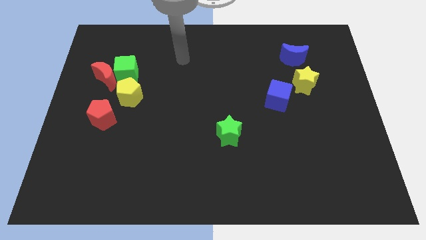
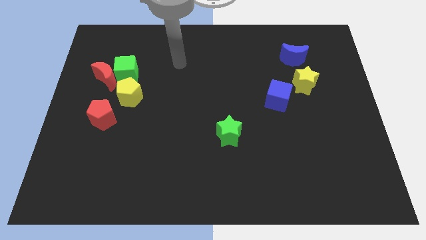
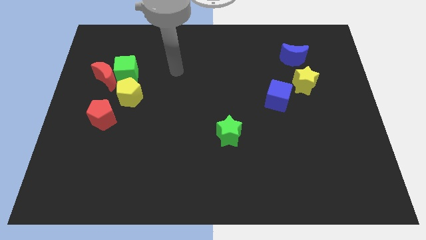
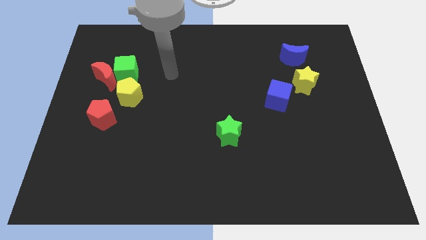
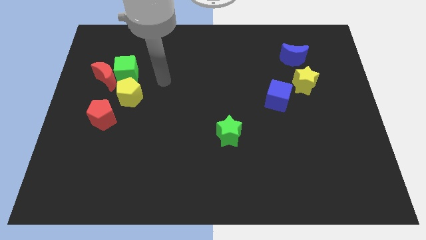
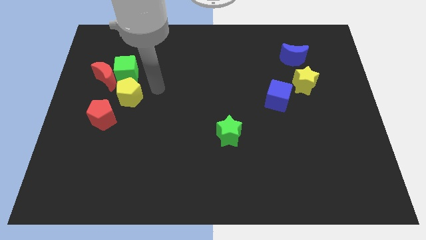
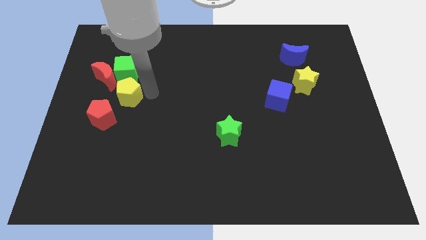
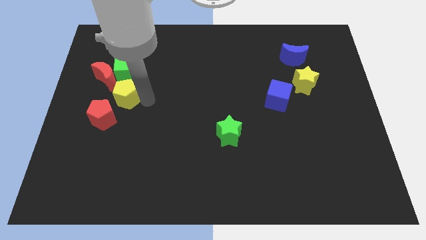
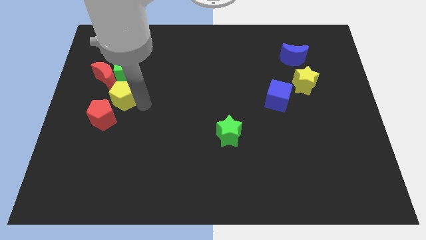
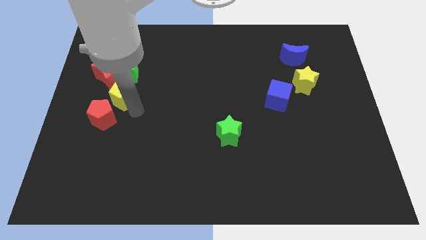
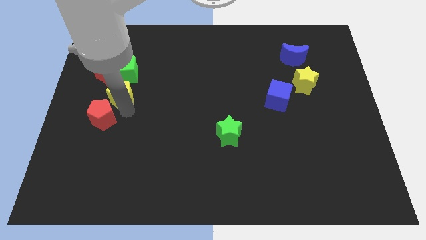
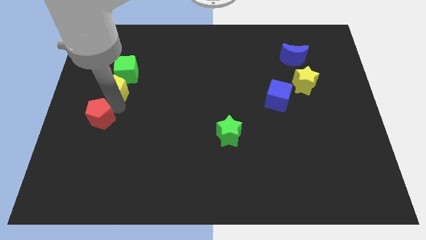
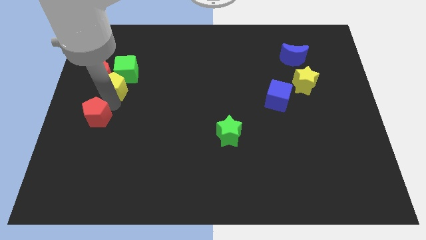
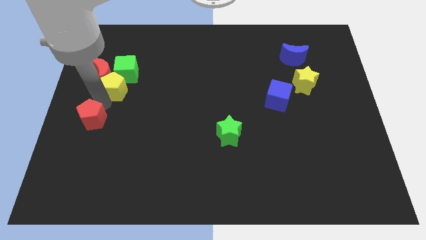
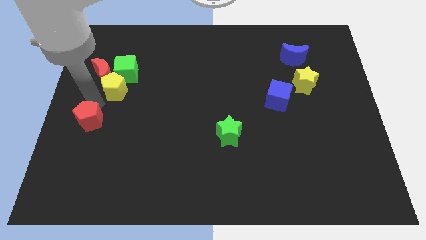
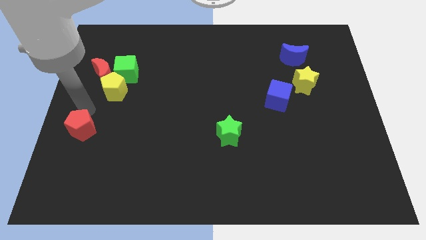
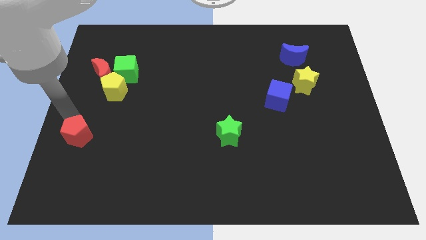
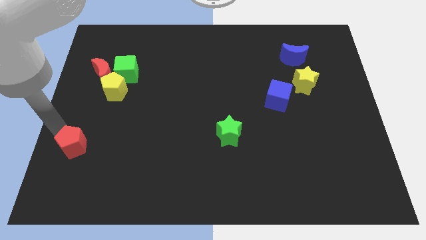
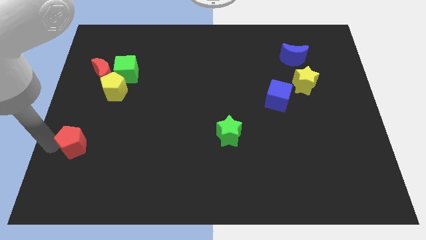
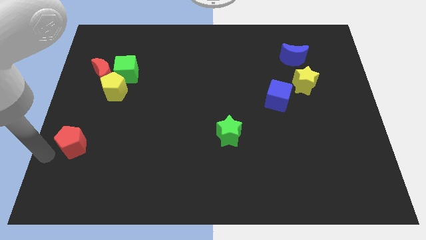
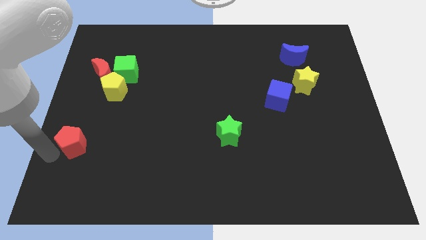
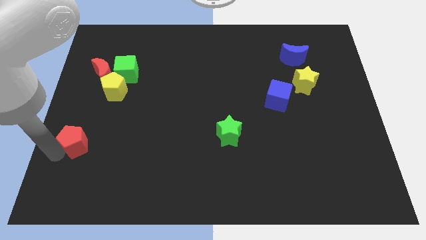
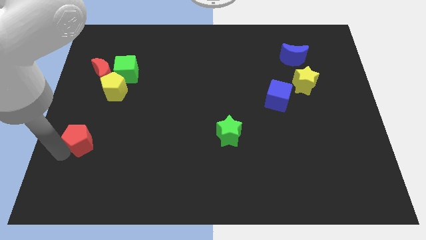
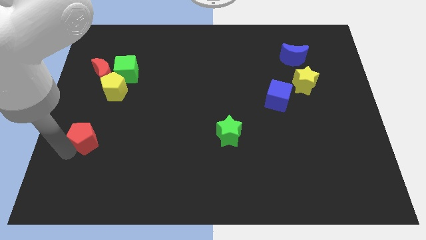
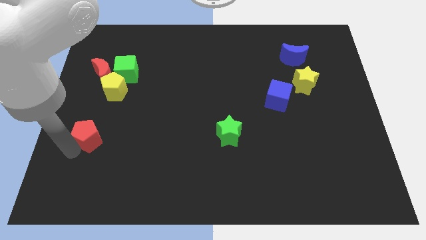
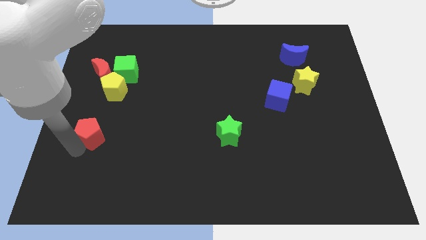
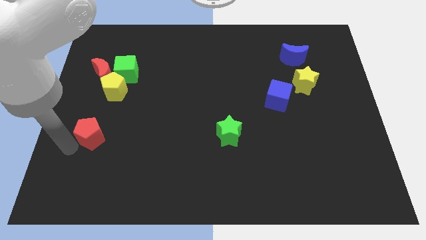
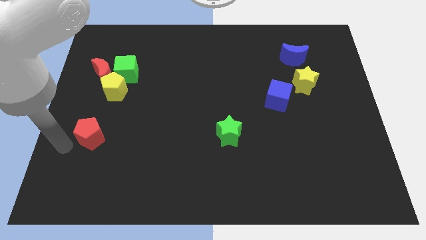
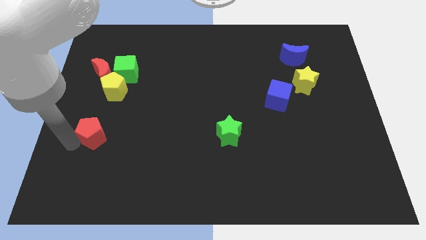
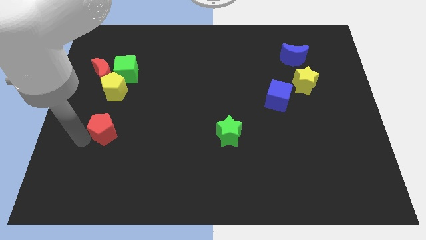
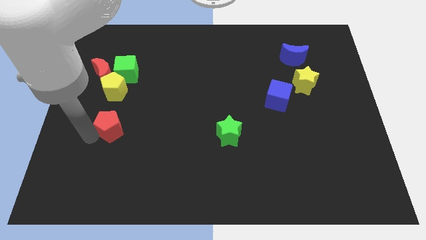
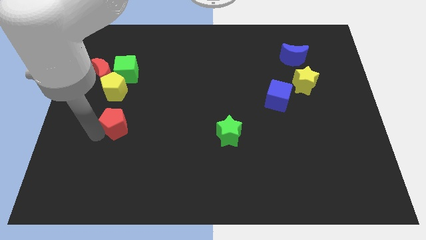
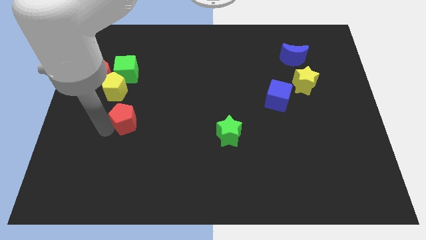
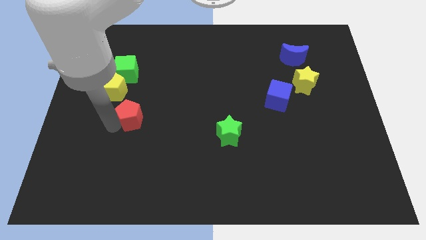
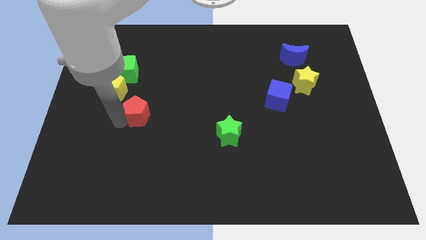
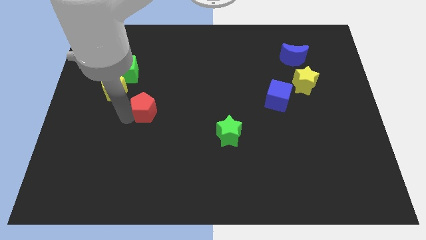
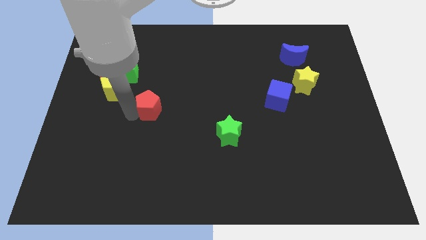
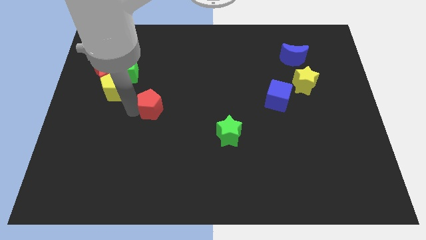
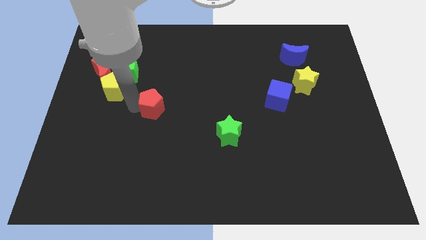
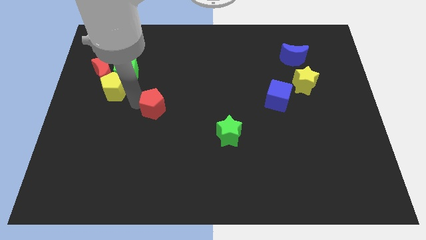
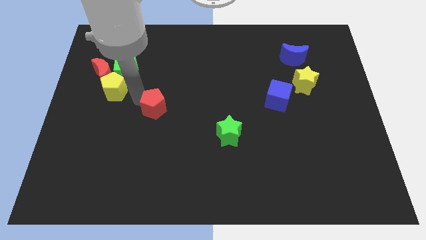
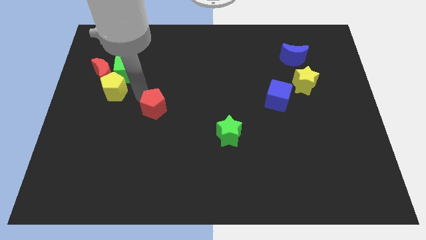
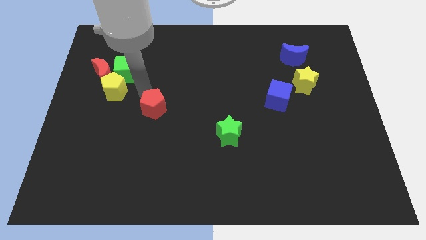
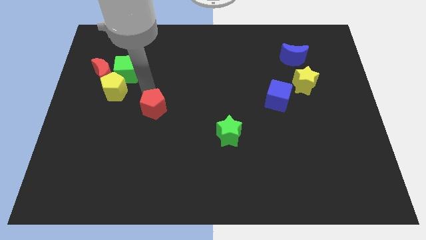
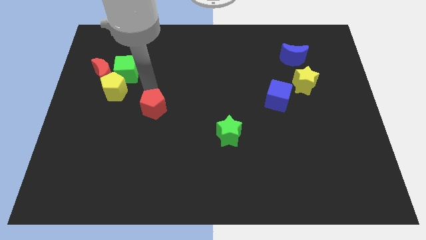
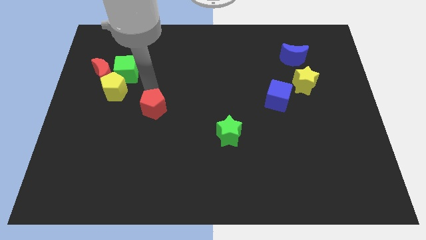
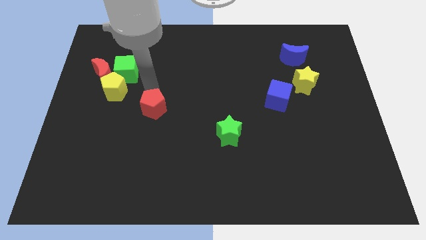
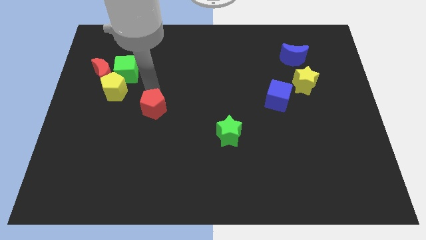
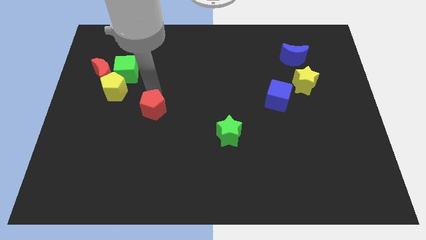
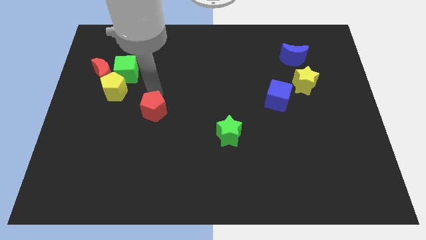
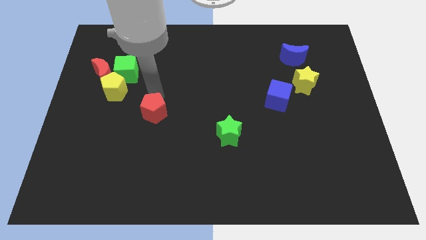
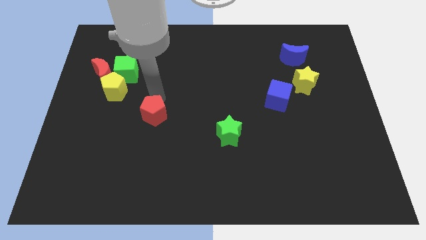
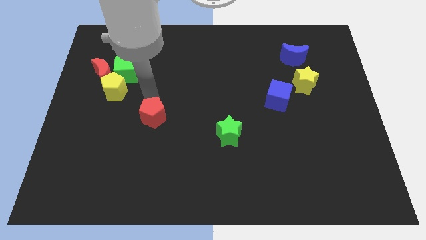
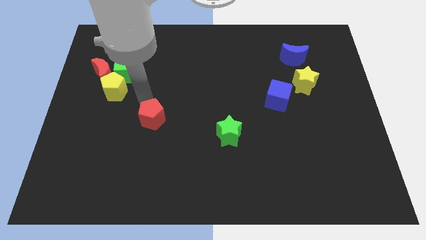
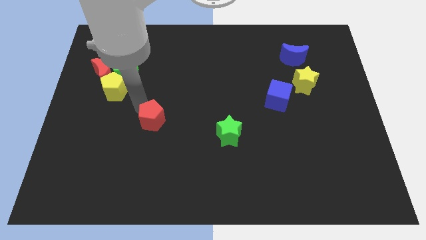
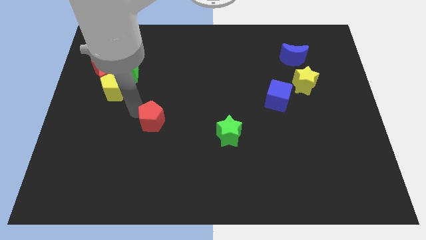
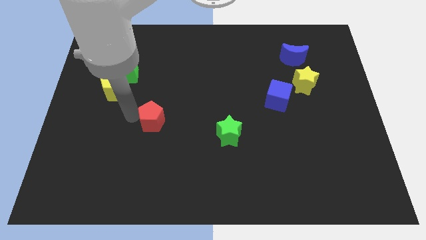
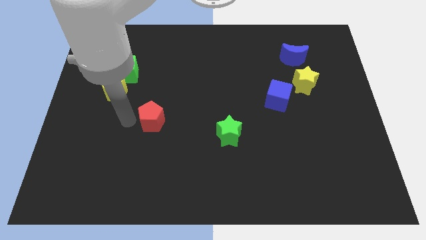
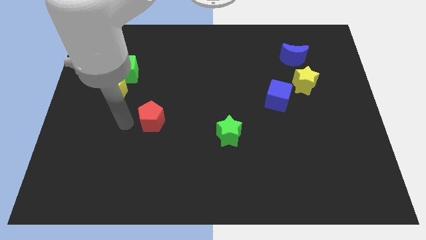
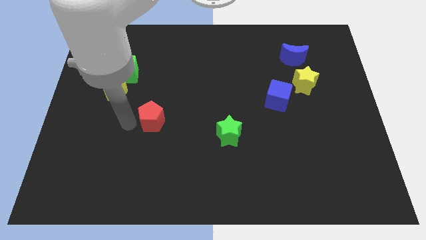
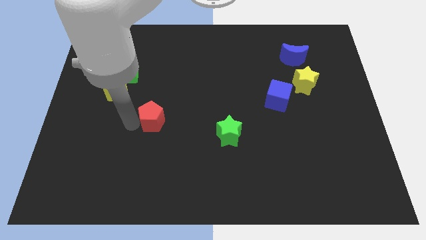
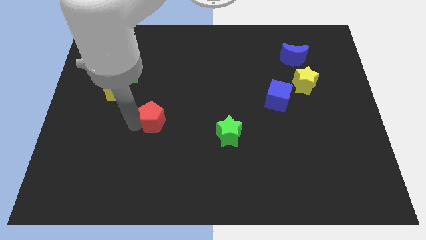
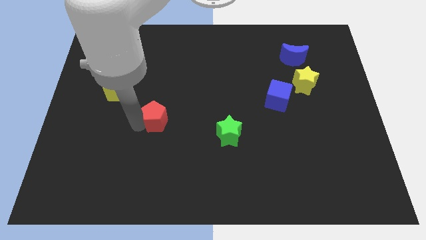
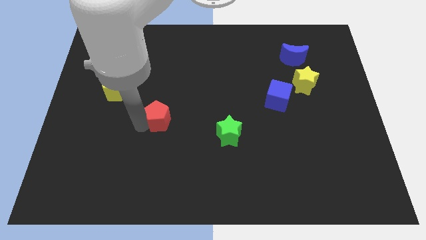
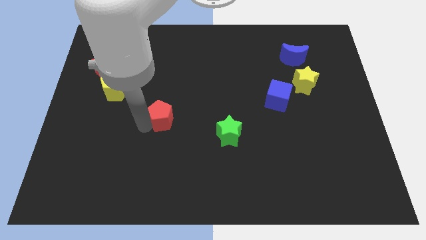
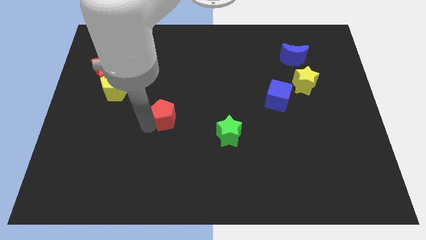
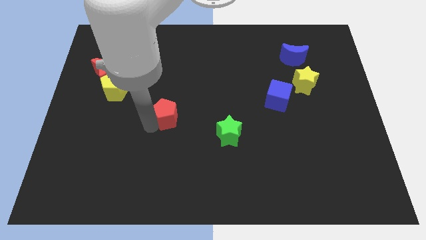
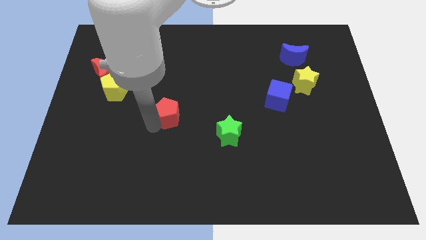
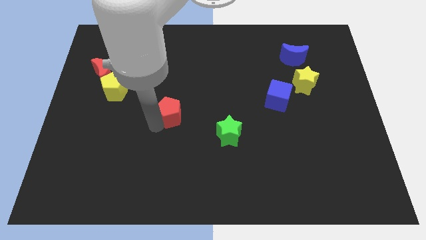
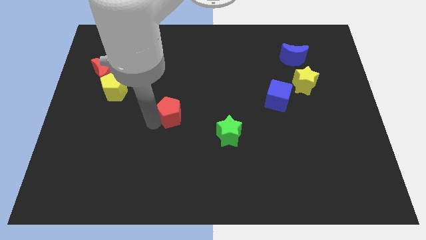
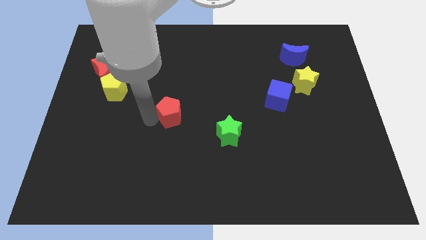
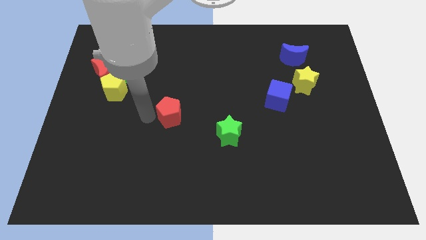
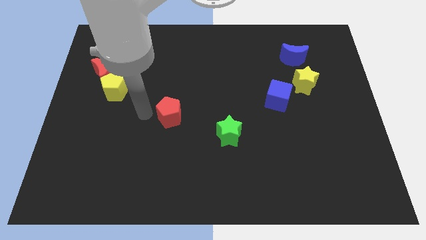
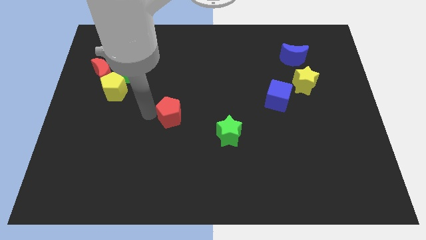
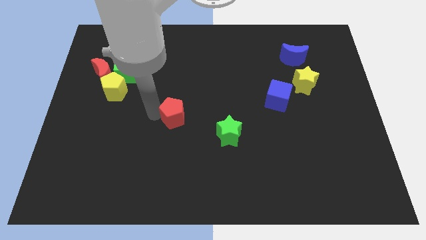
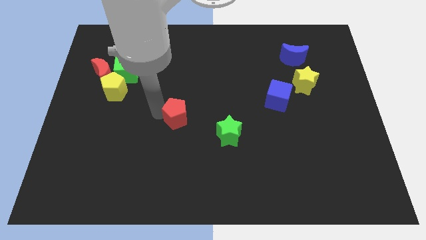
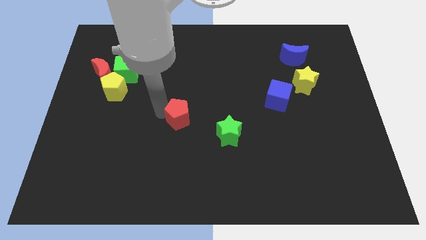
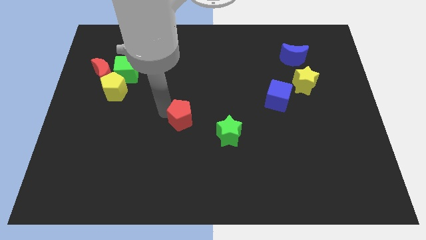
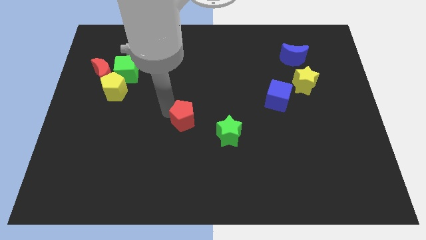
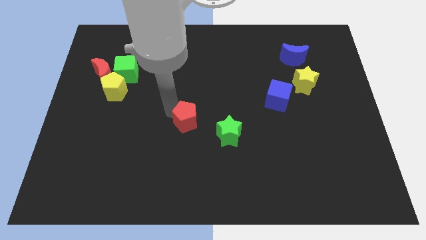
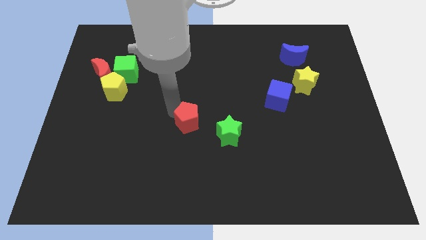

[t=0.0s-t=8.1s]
move the red pentagon to the right
